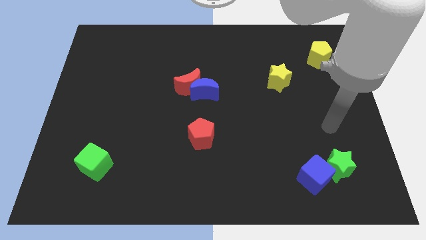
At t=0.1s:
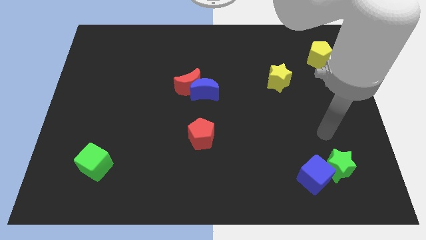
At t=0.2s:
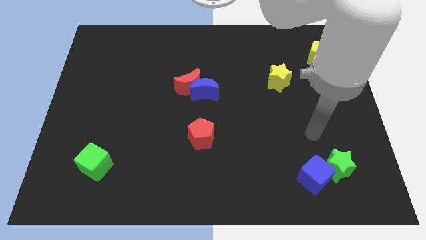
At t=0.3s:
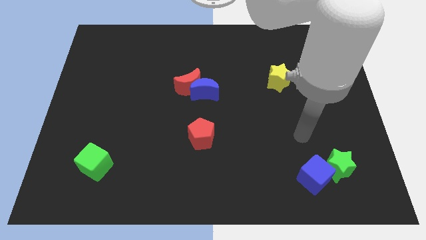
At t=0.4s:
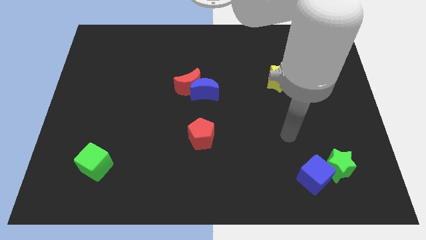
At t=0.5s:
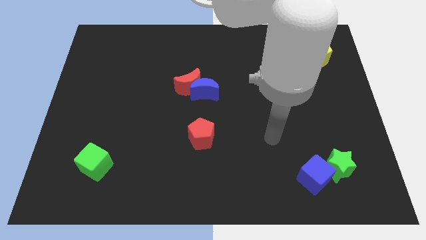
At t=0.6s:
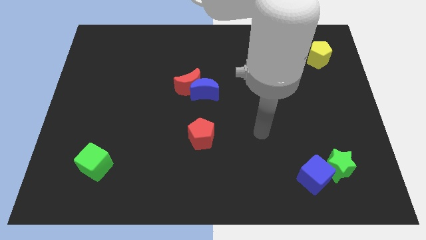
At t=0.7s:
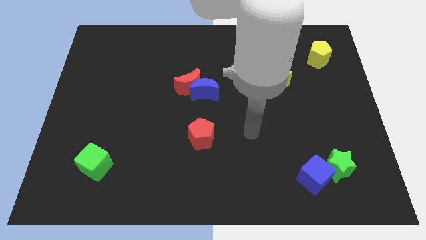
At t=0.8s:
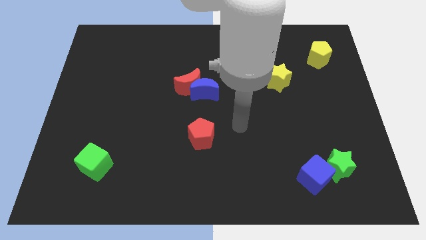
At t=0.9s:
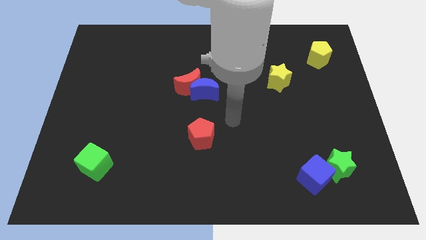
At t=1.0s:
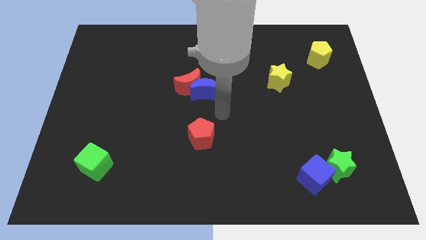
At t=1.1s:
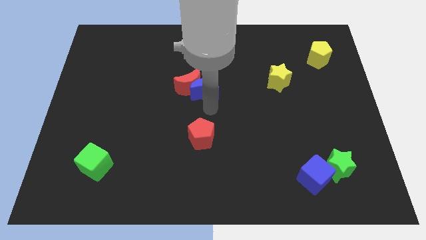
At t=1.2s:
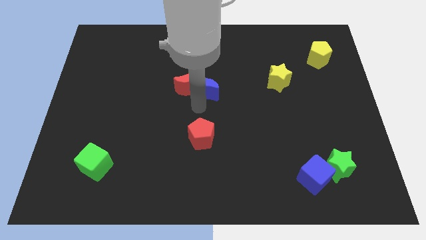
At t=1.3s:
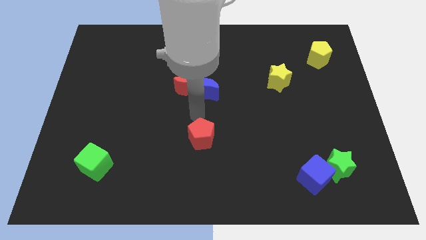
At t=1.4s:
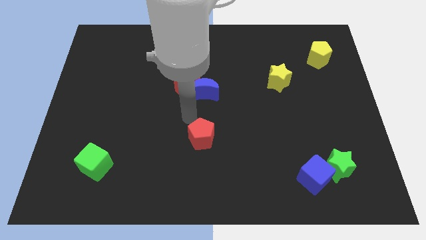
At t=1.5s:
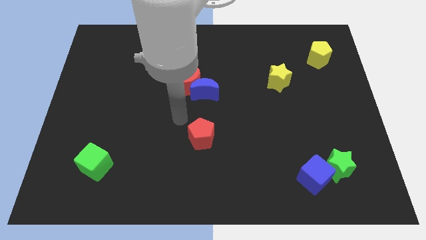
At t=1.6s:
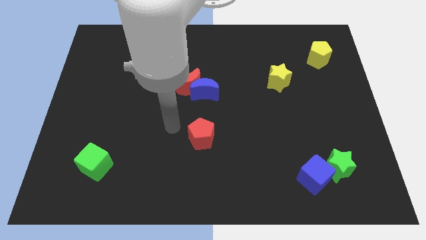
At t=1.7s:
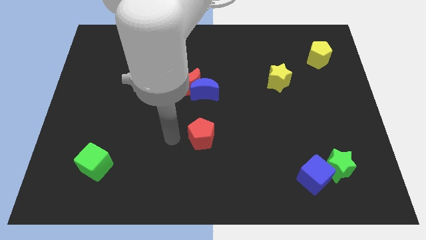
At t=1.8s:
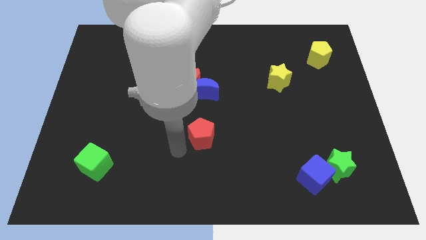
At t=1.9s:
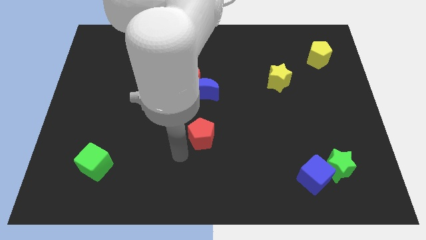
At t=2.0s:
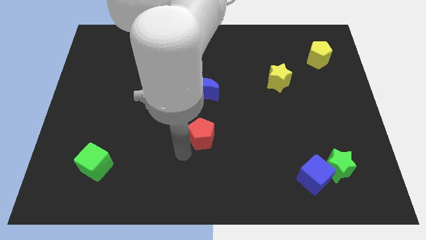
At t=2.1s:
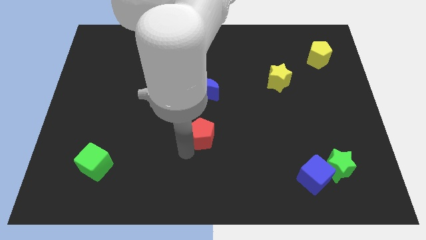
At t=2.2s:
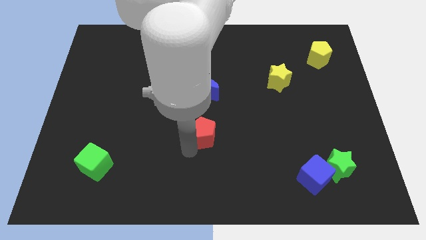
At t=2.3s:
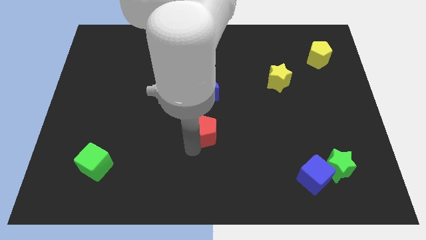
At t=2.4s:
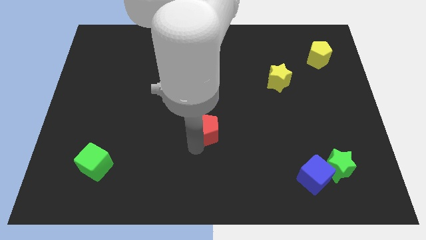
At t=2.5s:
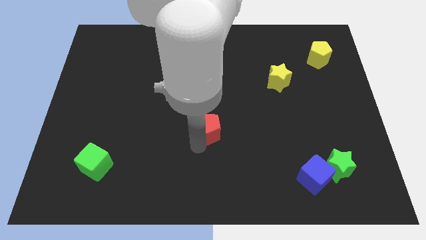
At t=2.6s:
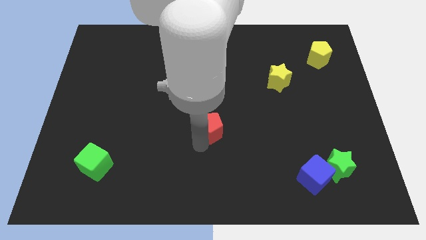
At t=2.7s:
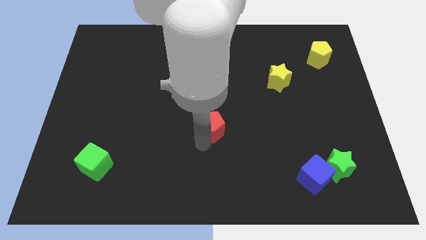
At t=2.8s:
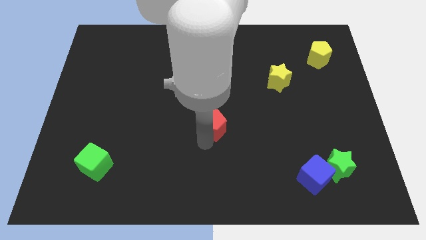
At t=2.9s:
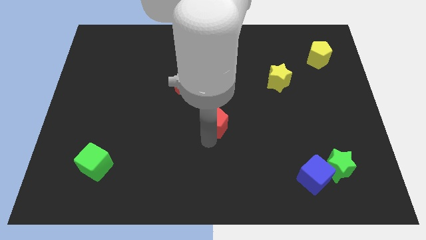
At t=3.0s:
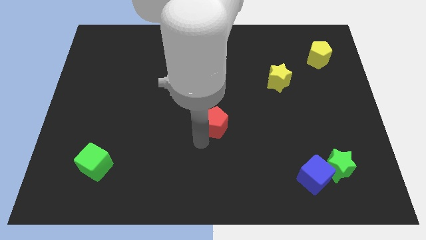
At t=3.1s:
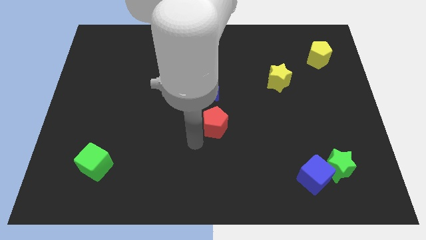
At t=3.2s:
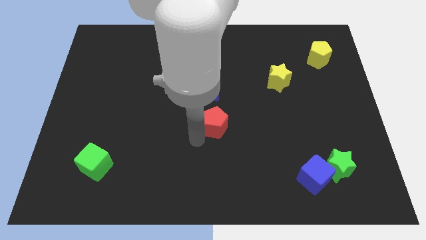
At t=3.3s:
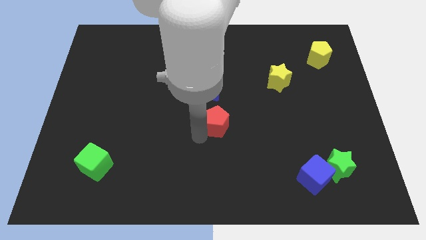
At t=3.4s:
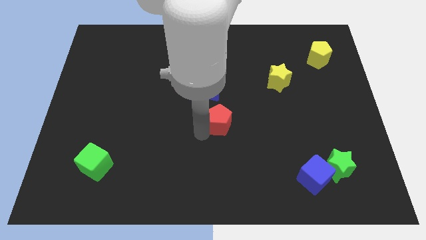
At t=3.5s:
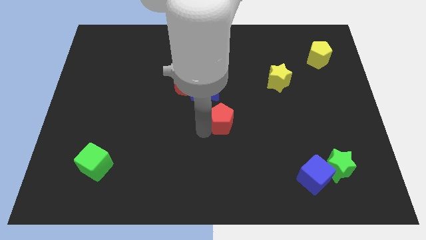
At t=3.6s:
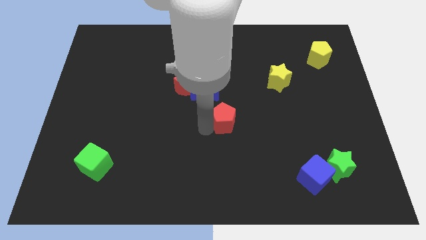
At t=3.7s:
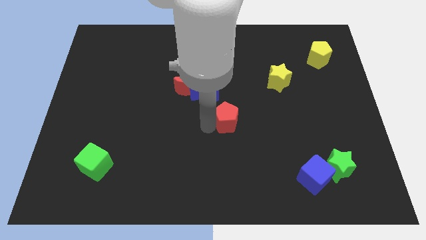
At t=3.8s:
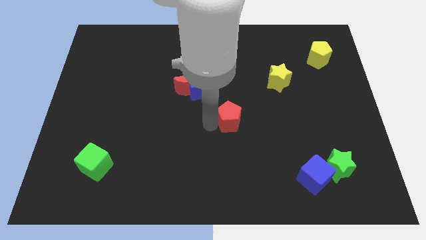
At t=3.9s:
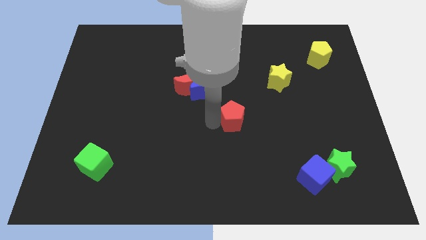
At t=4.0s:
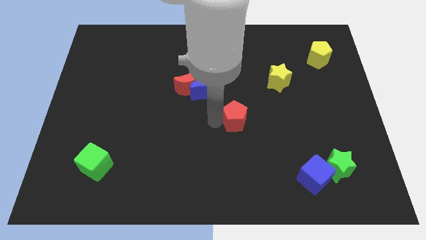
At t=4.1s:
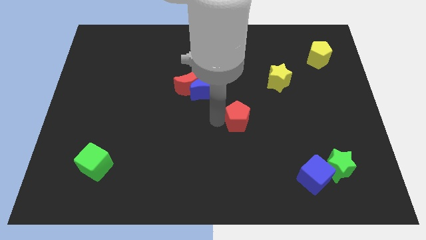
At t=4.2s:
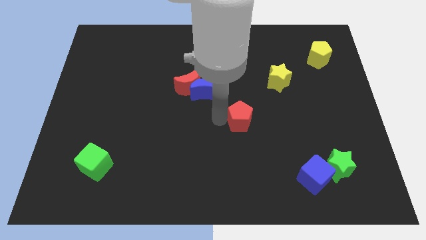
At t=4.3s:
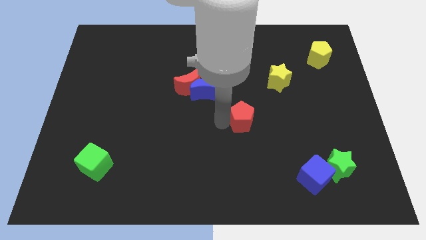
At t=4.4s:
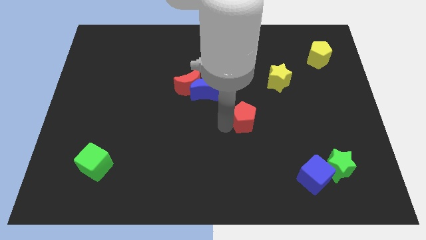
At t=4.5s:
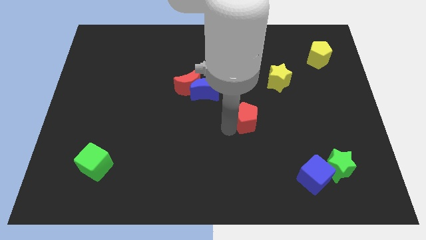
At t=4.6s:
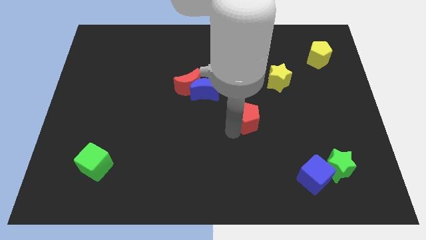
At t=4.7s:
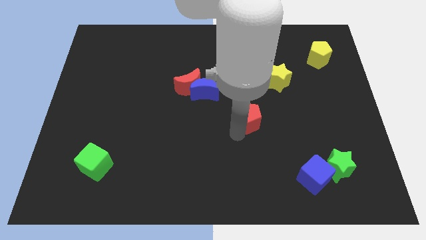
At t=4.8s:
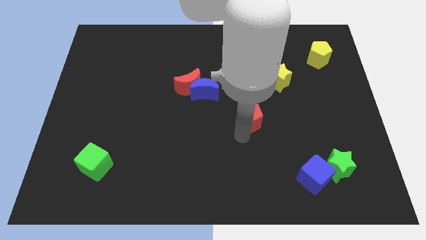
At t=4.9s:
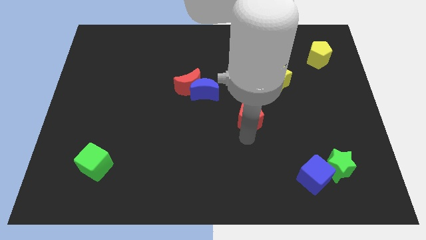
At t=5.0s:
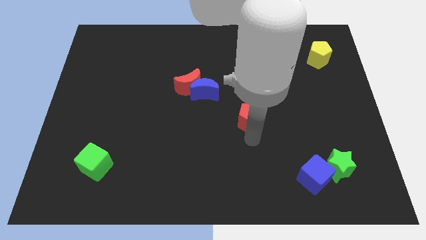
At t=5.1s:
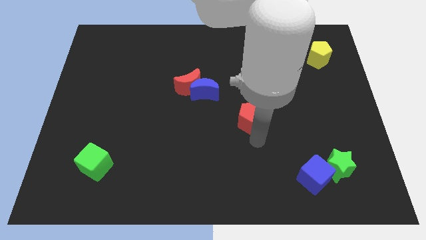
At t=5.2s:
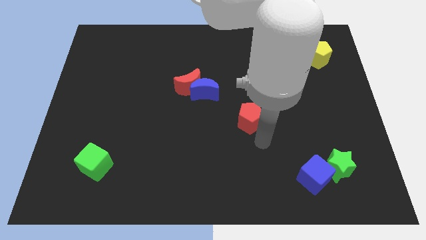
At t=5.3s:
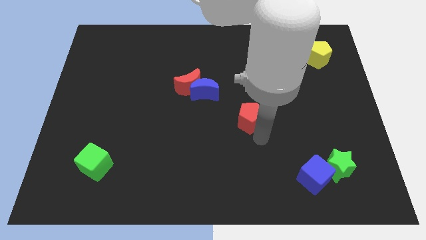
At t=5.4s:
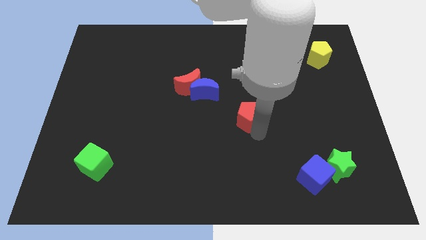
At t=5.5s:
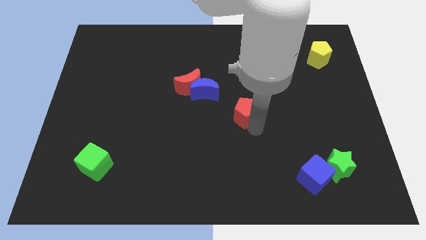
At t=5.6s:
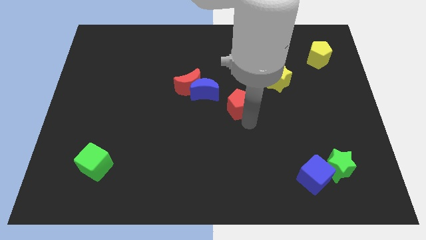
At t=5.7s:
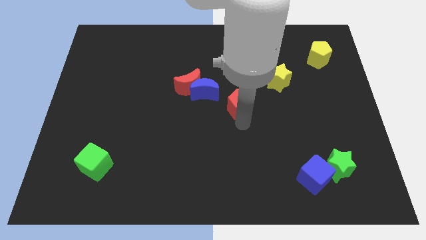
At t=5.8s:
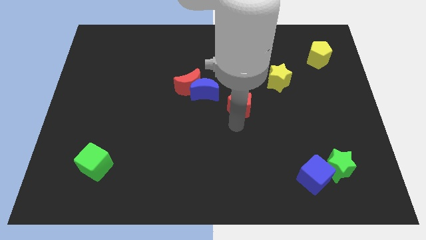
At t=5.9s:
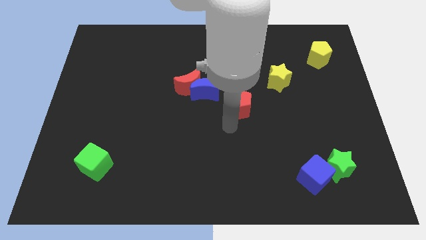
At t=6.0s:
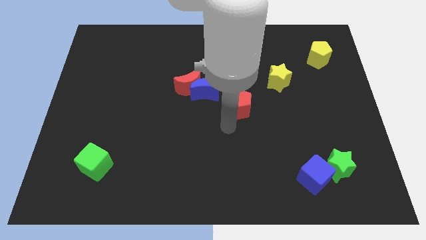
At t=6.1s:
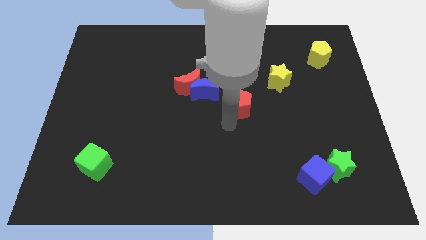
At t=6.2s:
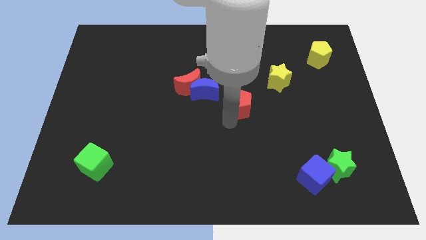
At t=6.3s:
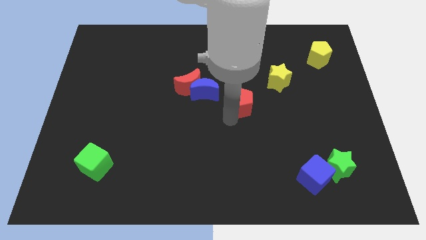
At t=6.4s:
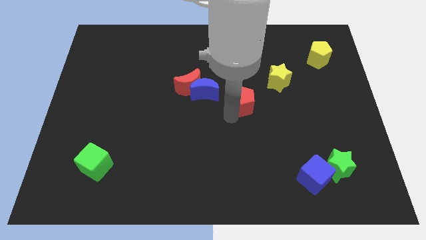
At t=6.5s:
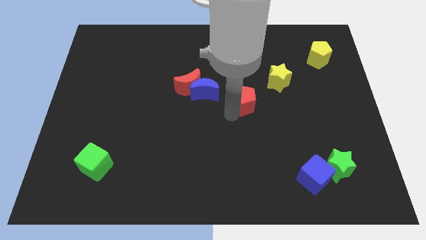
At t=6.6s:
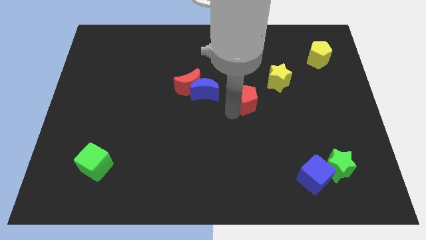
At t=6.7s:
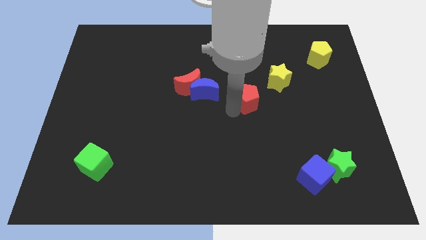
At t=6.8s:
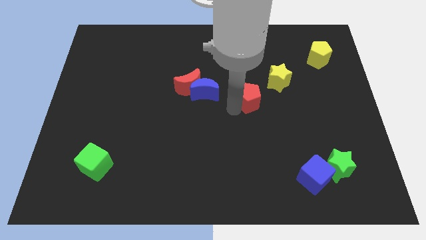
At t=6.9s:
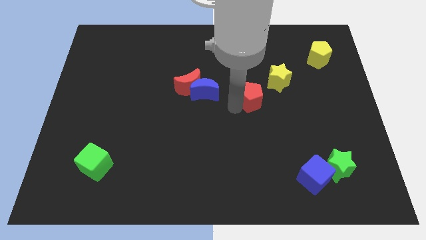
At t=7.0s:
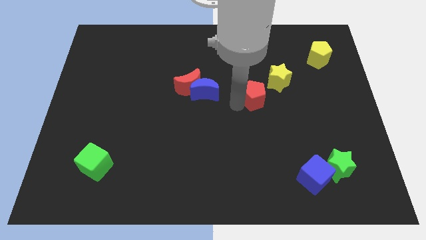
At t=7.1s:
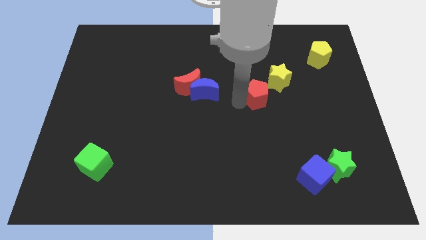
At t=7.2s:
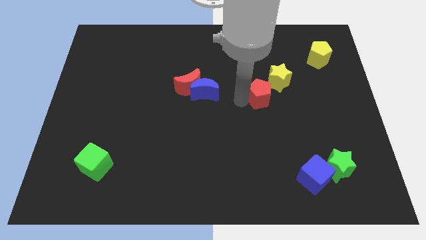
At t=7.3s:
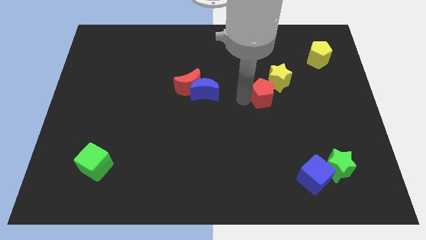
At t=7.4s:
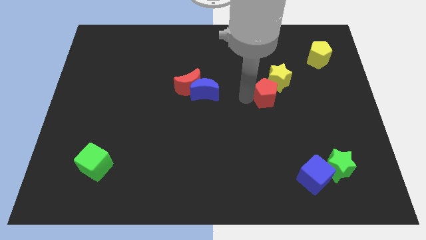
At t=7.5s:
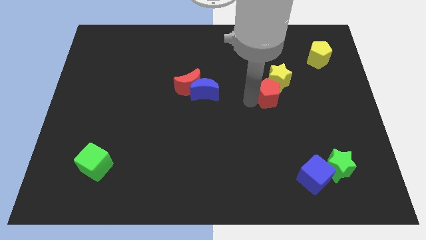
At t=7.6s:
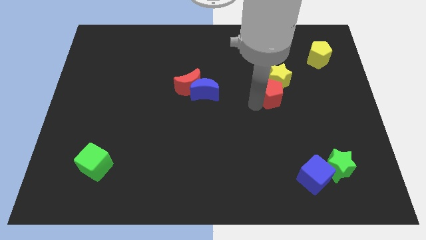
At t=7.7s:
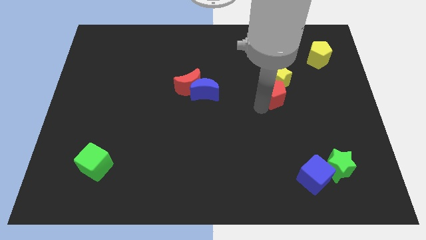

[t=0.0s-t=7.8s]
slide the red pentagon up and to the right diagonally

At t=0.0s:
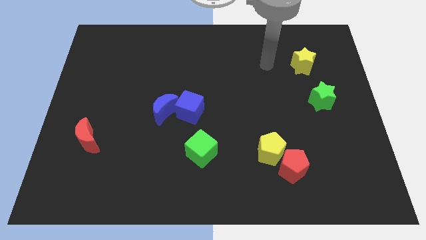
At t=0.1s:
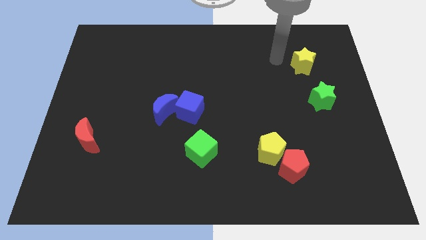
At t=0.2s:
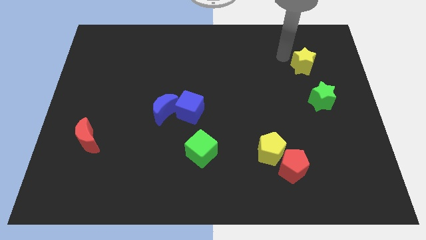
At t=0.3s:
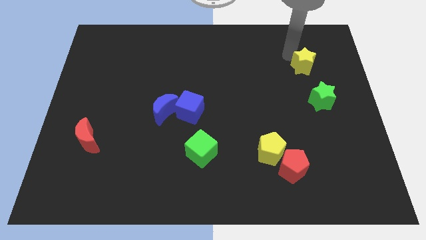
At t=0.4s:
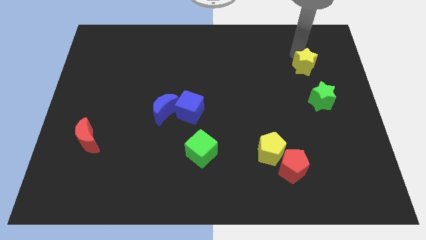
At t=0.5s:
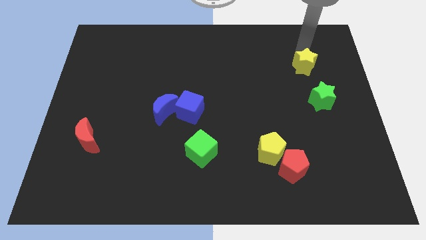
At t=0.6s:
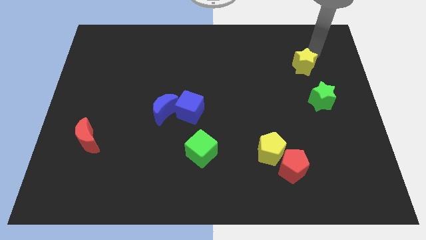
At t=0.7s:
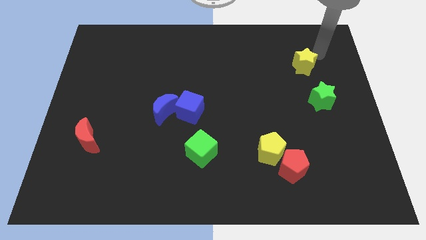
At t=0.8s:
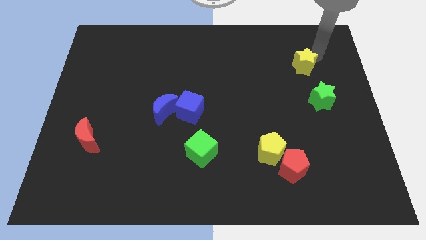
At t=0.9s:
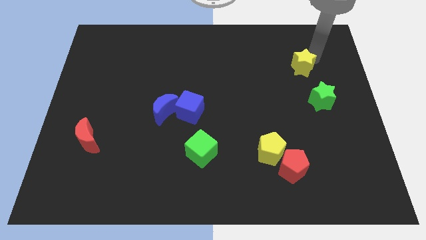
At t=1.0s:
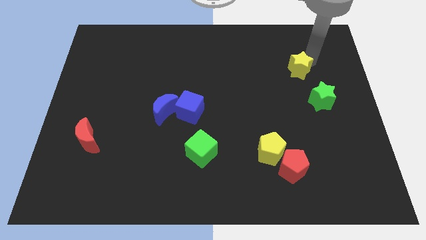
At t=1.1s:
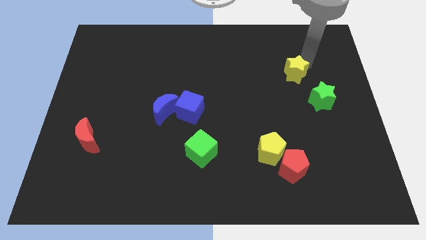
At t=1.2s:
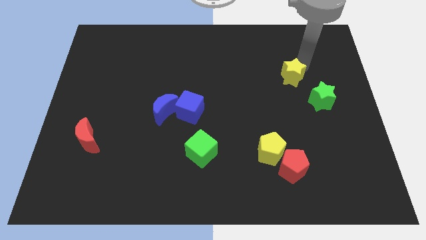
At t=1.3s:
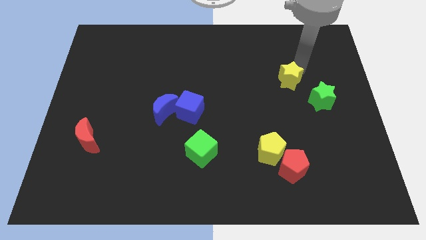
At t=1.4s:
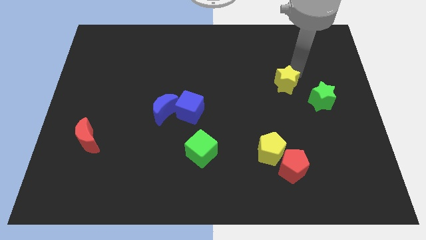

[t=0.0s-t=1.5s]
slightly slide the yellow star down and then left
